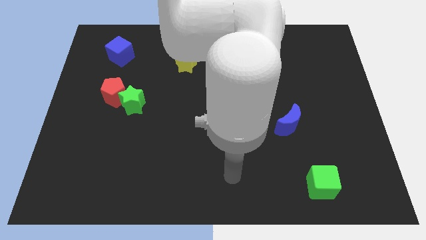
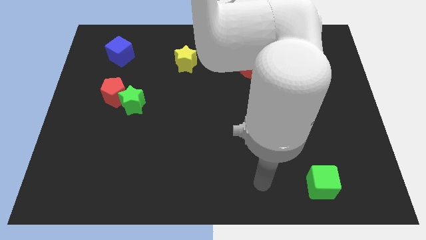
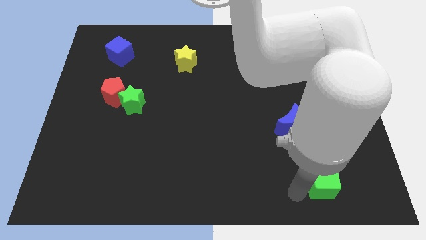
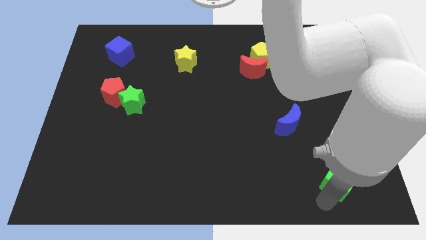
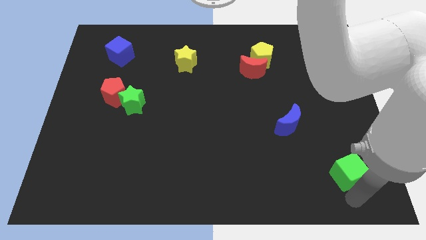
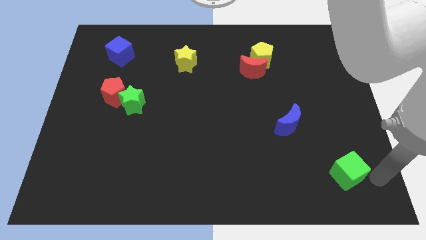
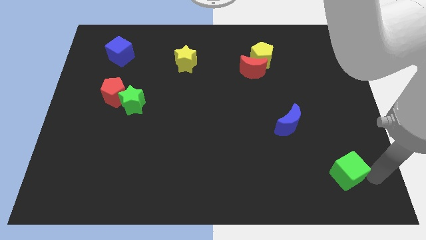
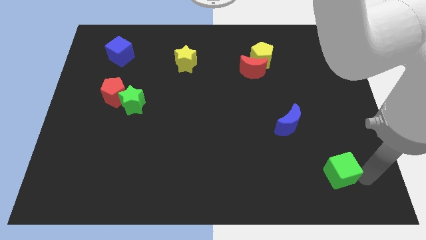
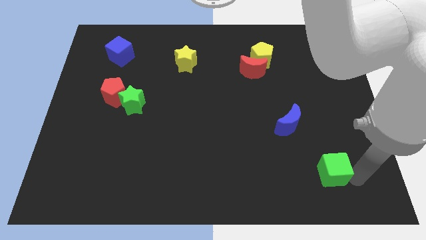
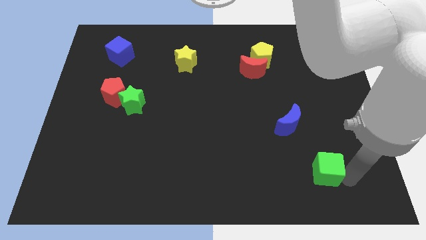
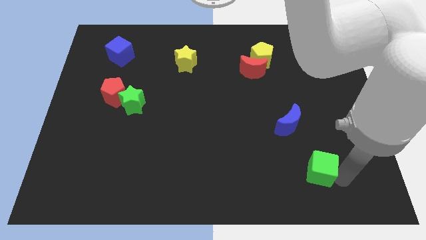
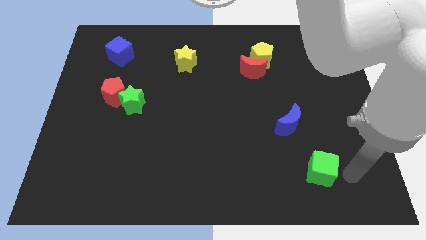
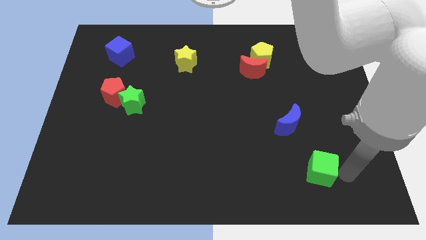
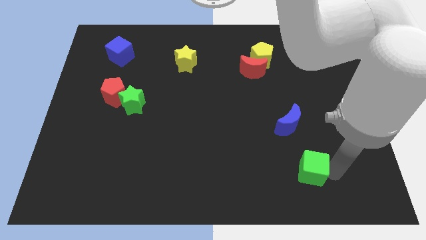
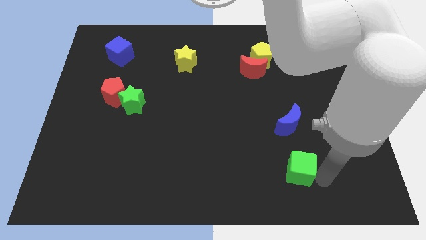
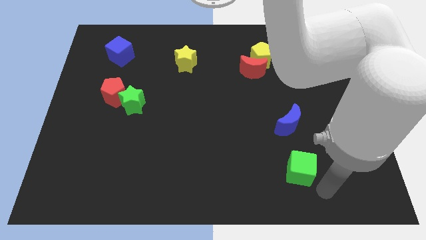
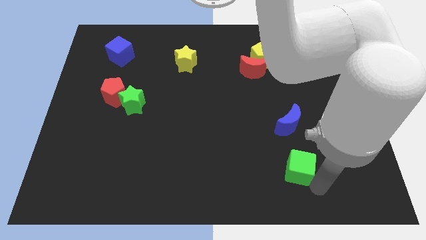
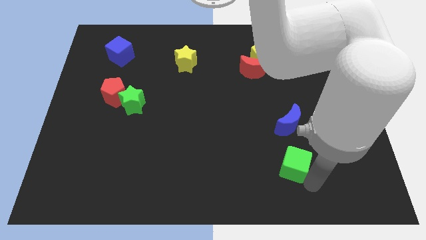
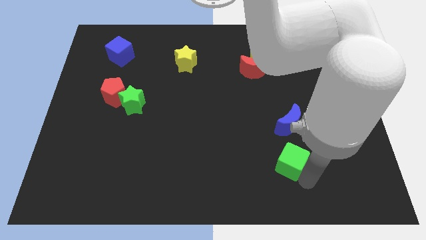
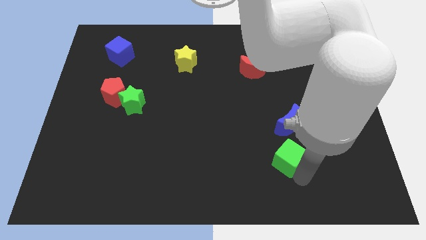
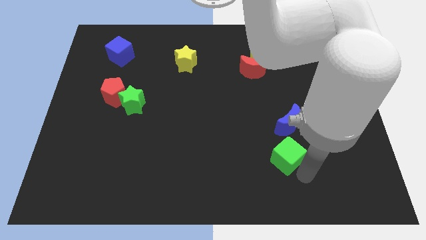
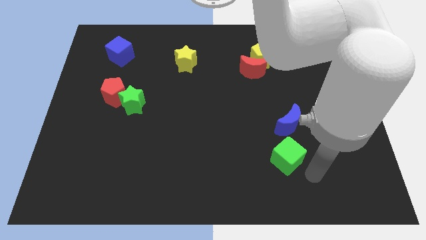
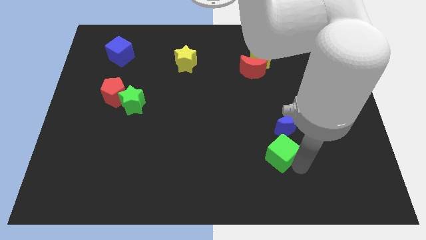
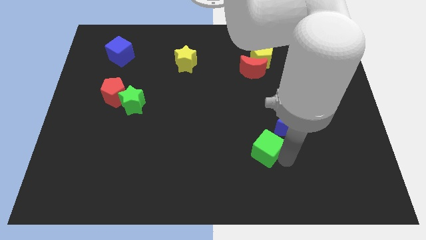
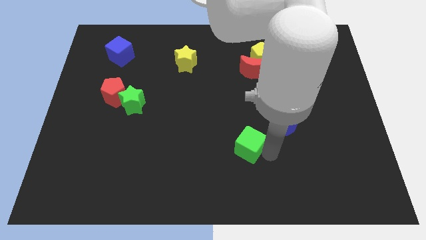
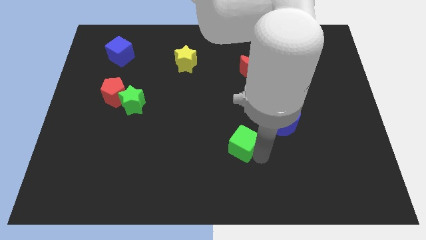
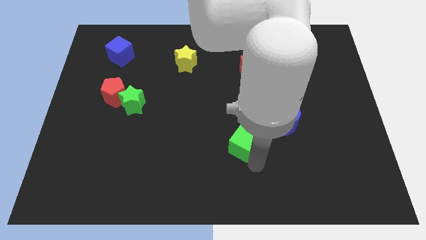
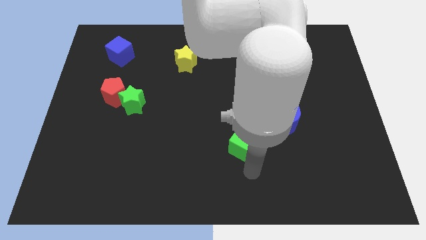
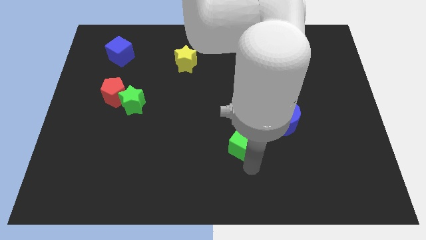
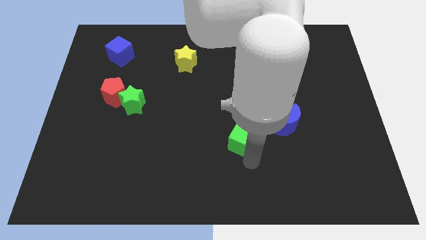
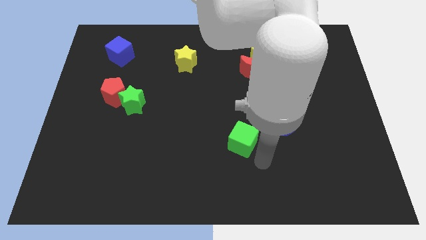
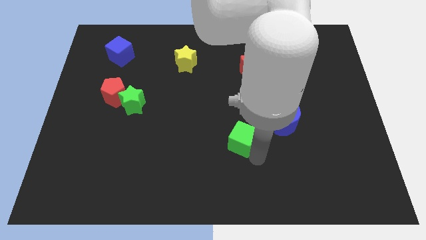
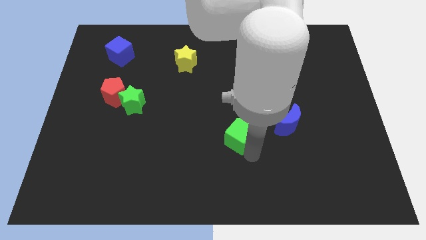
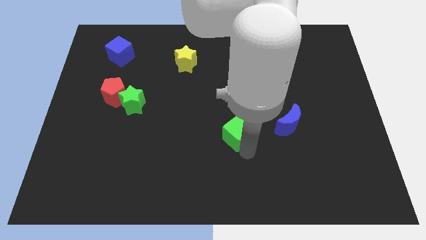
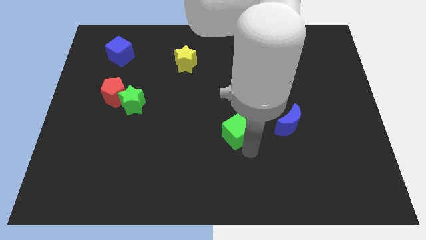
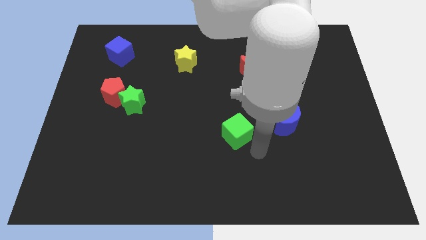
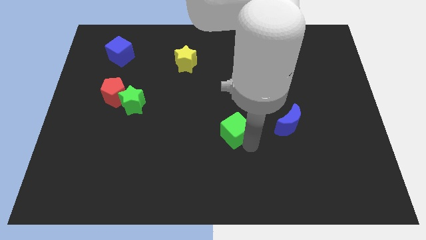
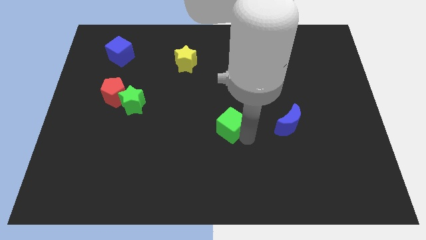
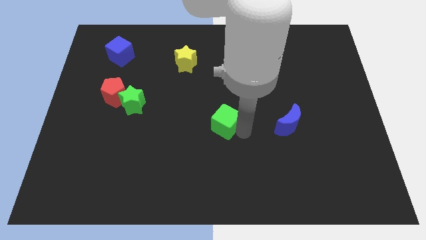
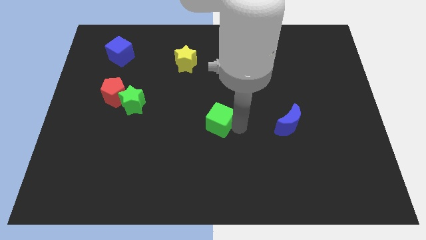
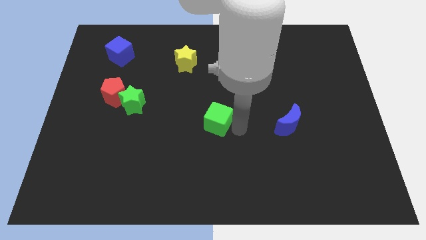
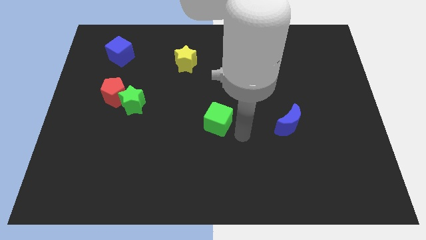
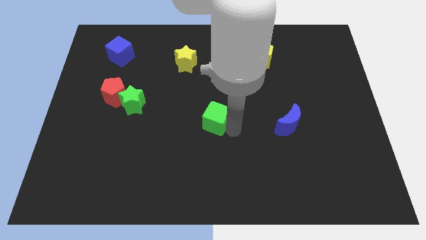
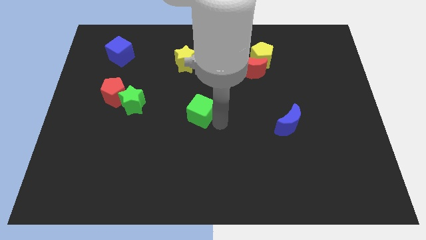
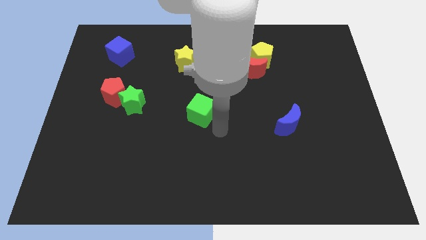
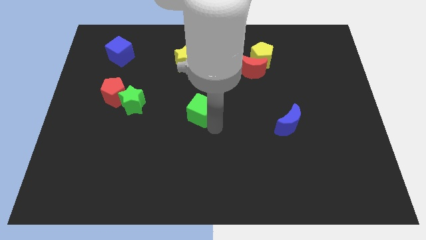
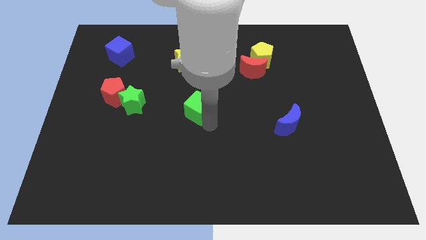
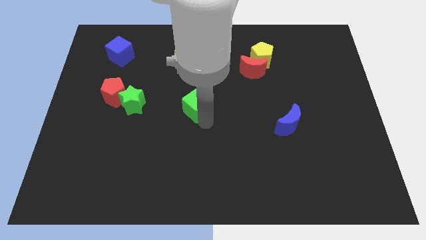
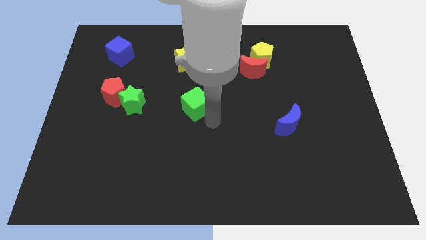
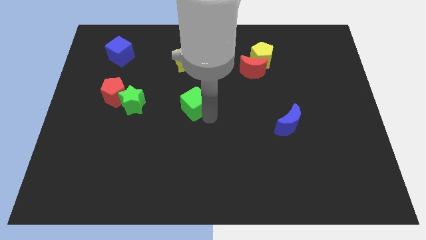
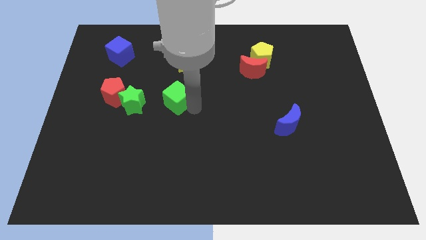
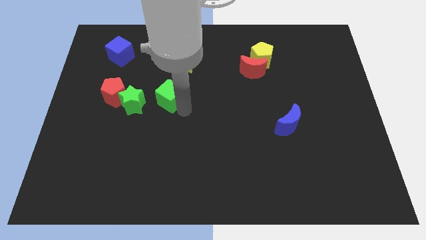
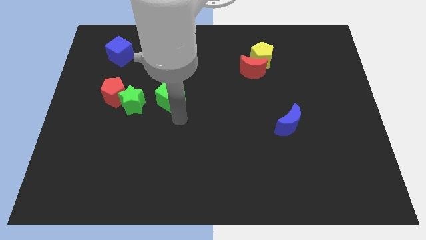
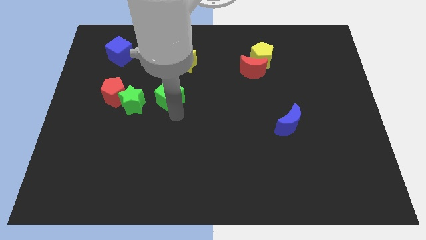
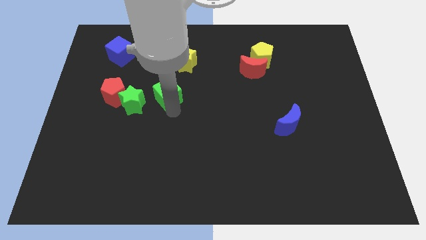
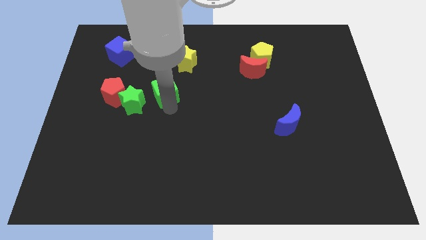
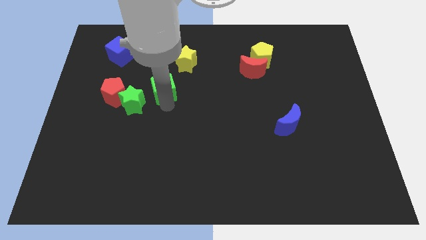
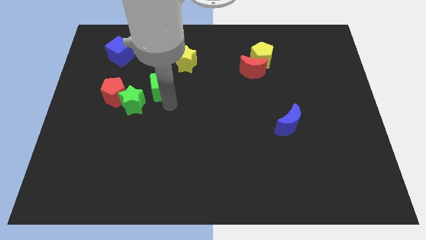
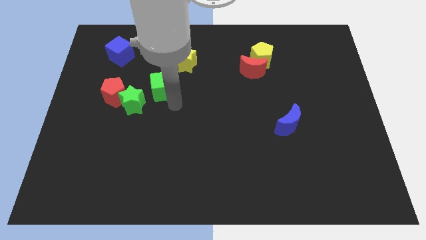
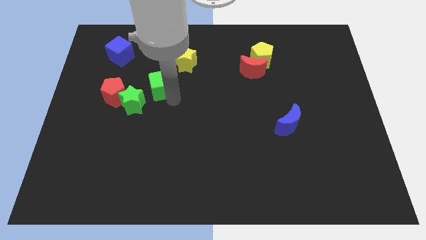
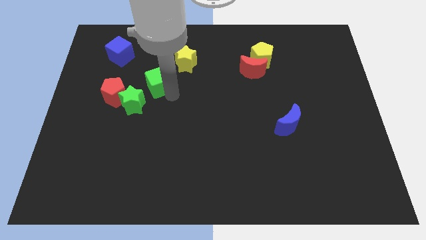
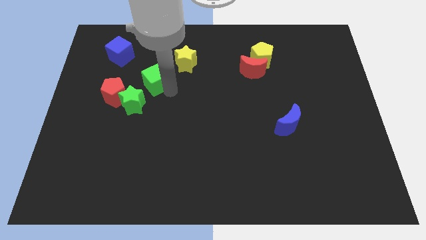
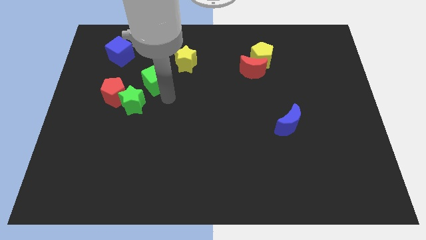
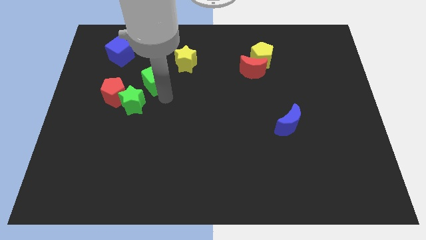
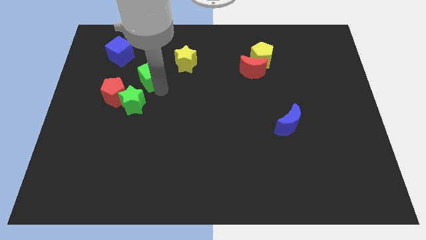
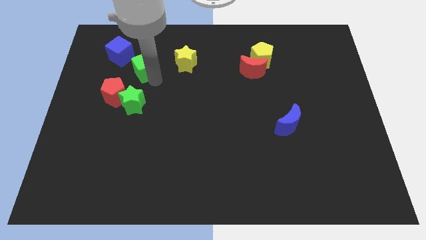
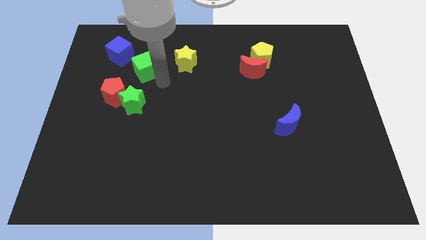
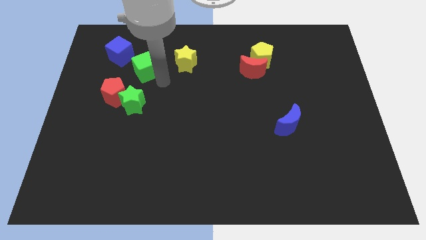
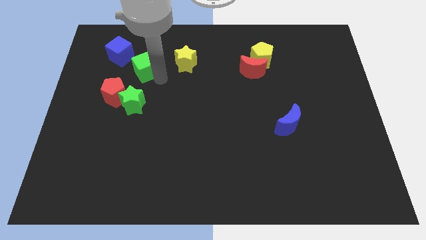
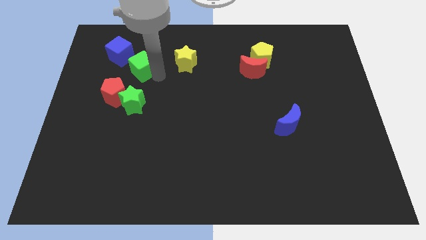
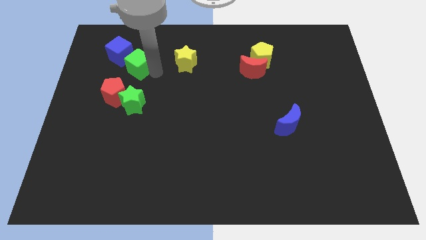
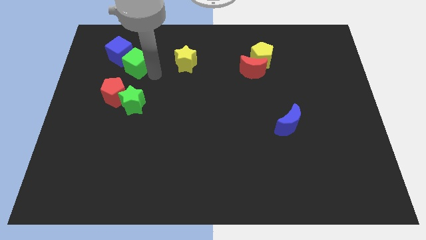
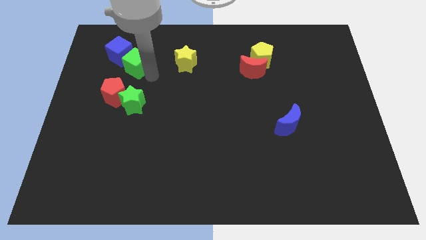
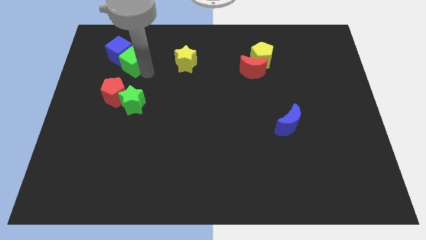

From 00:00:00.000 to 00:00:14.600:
move the green cube next to the blue cube

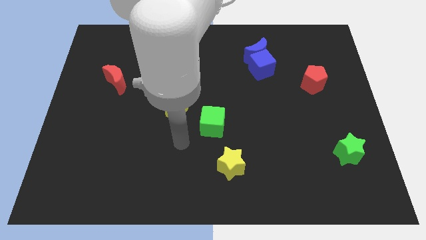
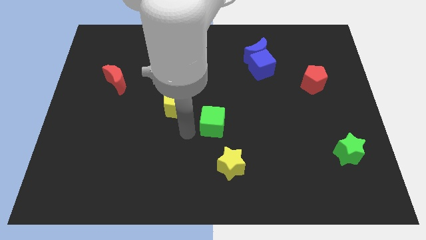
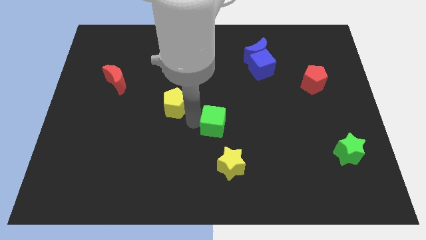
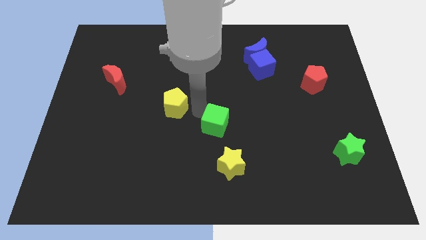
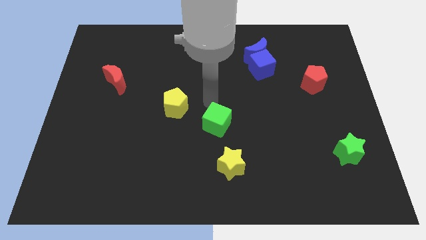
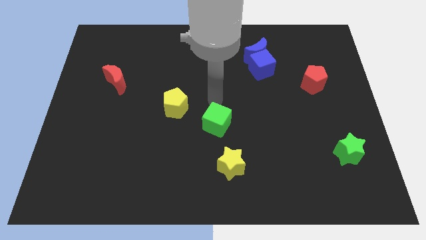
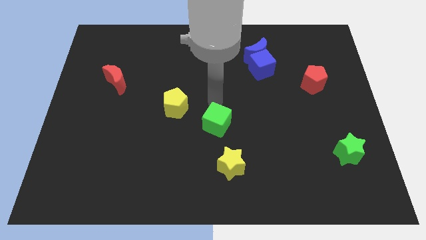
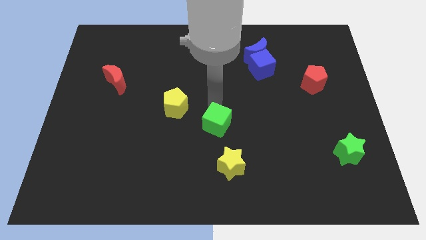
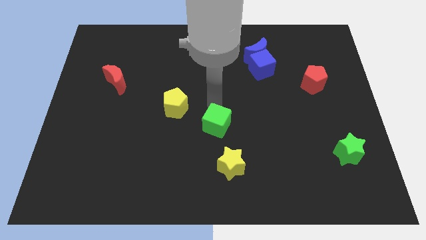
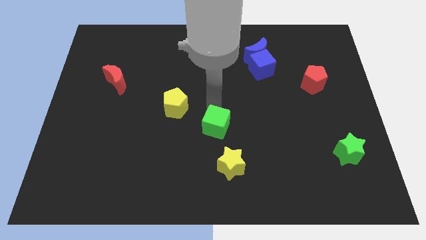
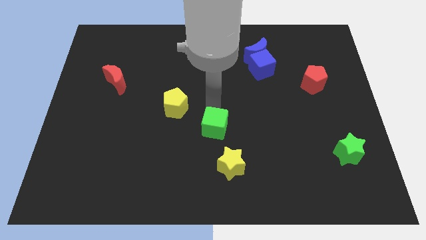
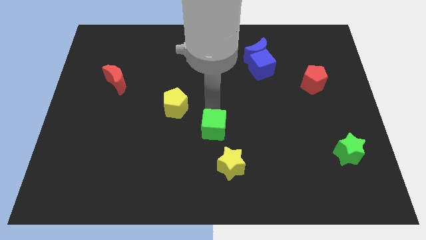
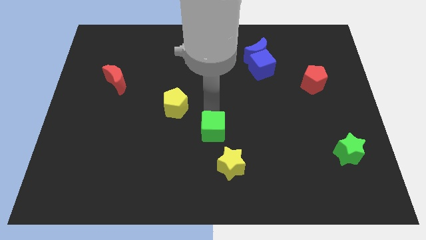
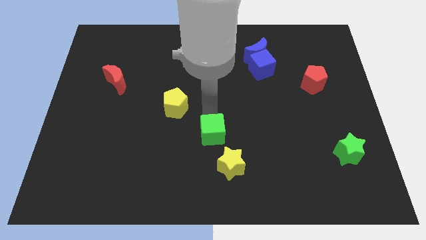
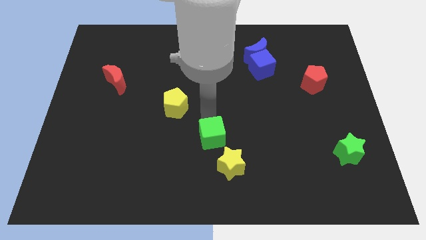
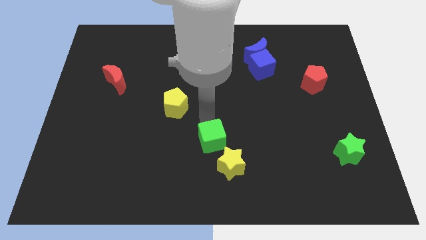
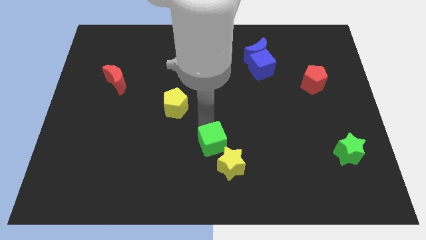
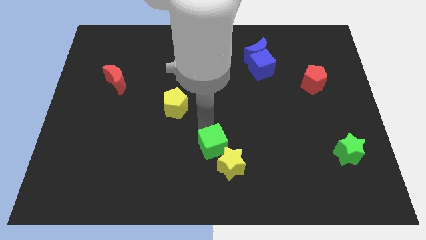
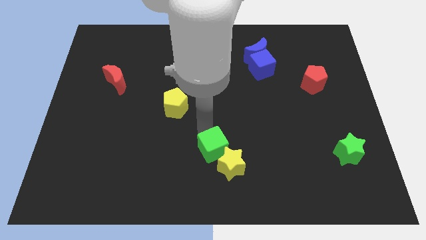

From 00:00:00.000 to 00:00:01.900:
push the green cube towards the yellow star
